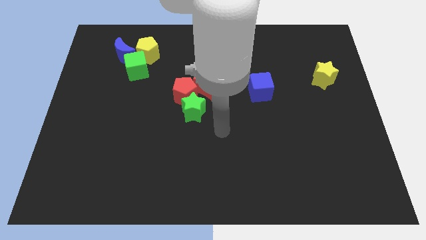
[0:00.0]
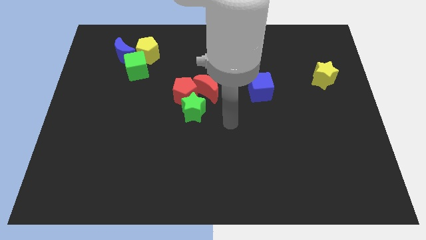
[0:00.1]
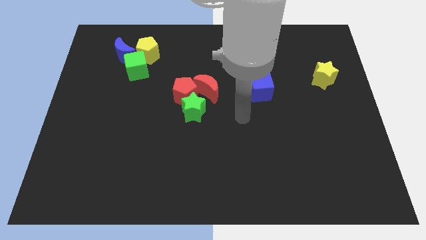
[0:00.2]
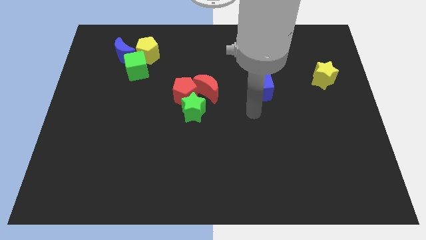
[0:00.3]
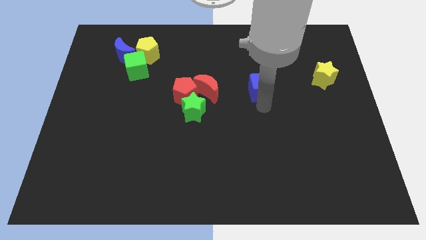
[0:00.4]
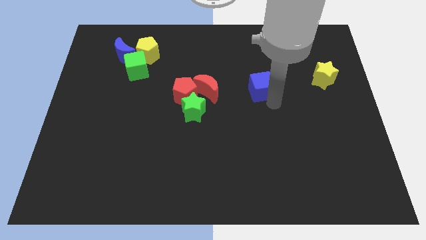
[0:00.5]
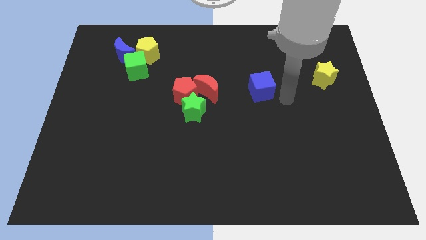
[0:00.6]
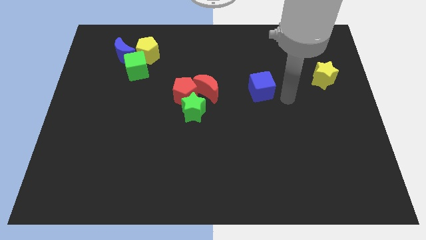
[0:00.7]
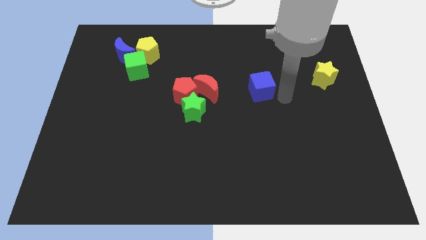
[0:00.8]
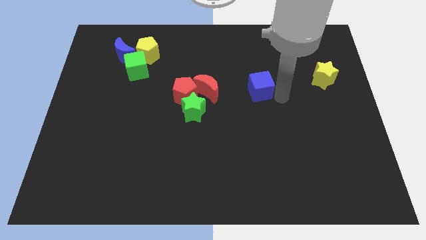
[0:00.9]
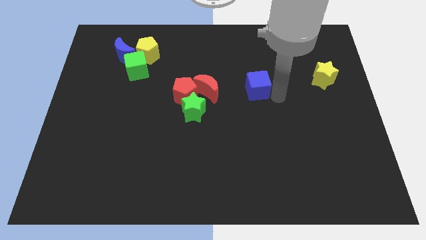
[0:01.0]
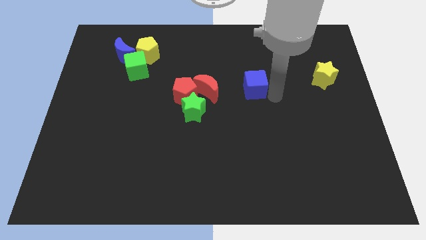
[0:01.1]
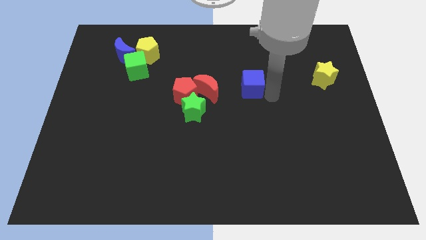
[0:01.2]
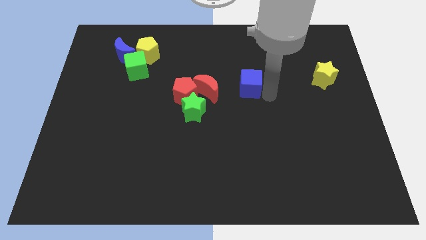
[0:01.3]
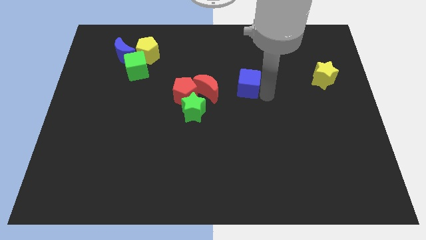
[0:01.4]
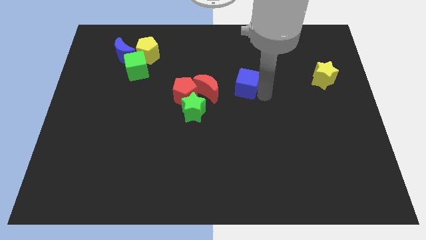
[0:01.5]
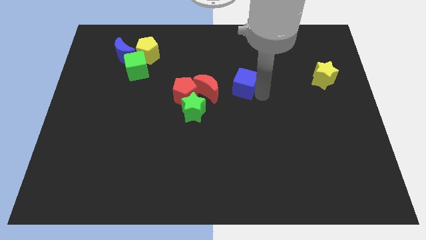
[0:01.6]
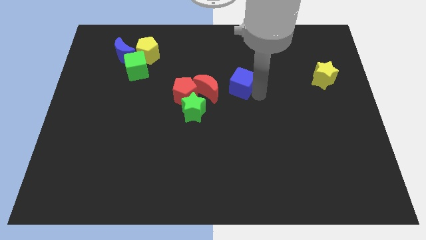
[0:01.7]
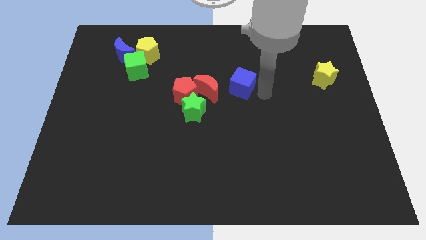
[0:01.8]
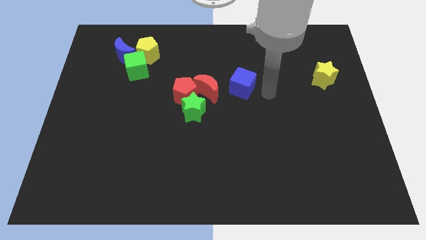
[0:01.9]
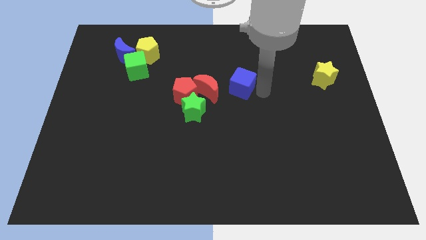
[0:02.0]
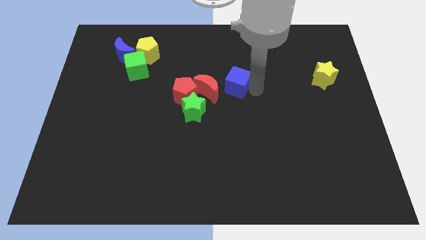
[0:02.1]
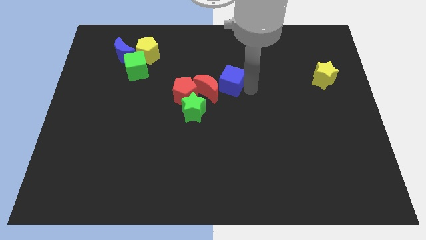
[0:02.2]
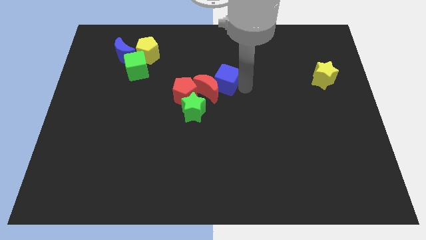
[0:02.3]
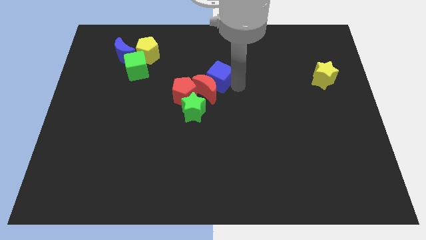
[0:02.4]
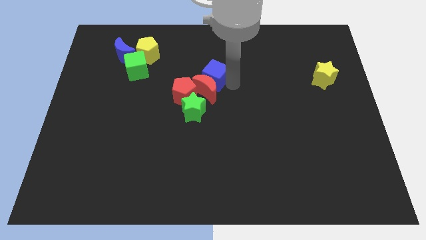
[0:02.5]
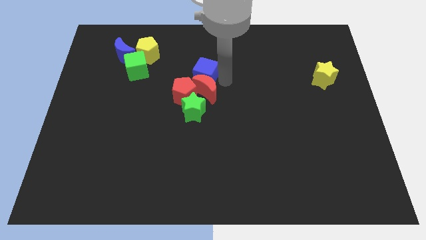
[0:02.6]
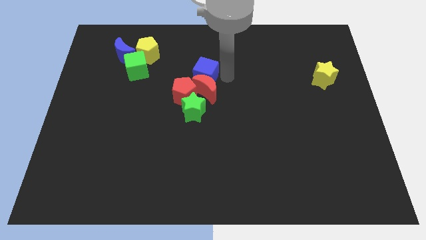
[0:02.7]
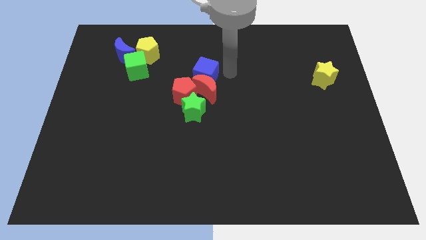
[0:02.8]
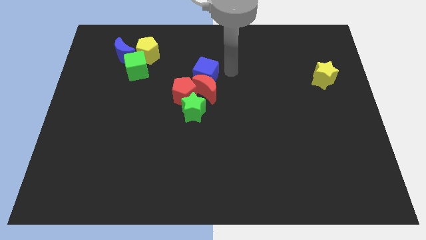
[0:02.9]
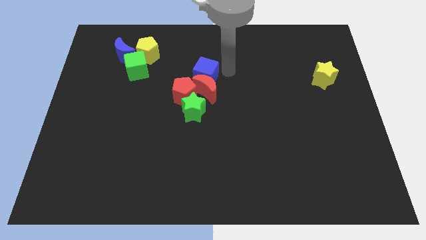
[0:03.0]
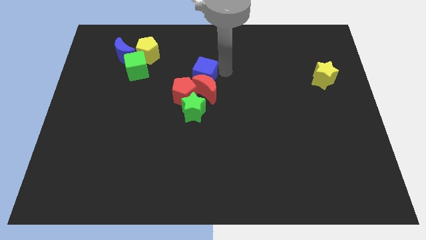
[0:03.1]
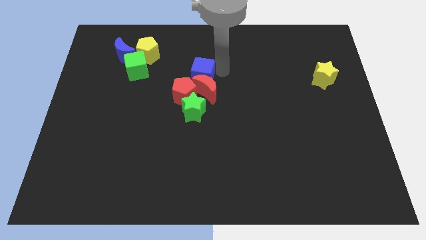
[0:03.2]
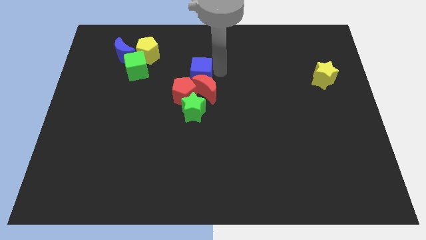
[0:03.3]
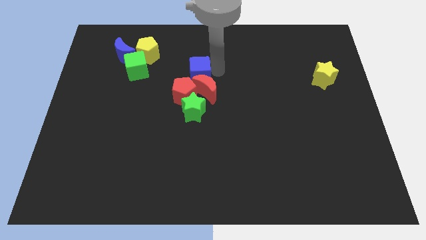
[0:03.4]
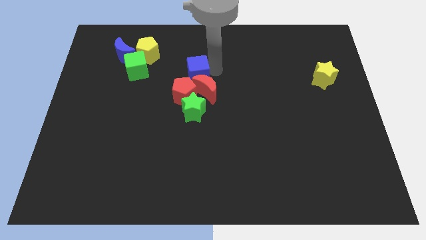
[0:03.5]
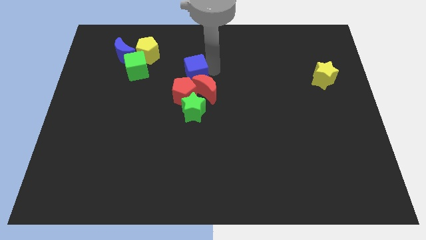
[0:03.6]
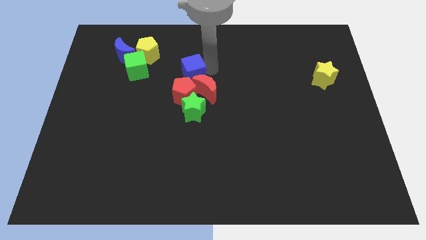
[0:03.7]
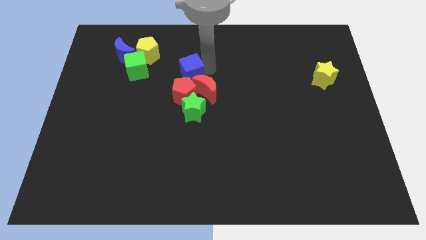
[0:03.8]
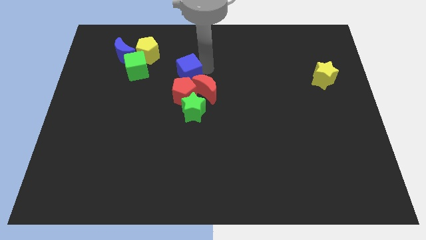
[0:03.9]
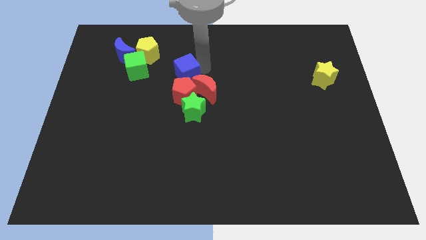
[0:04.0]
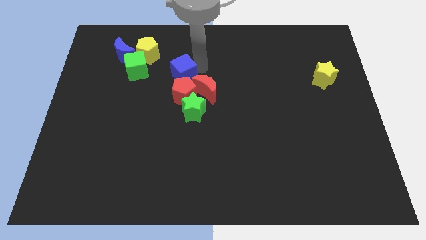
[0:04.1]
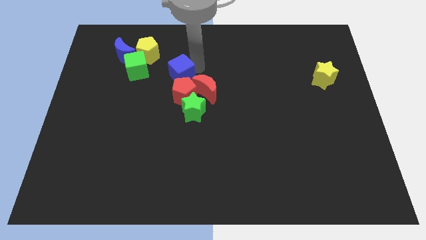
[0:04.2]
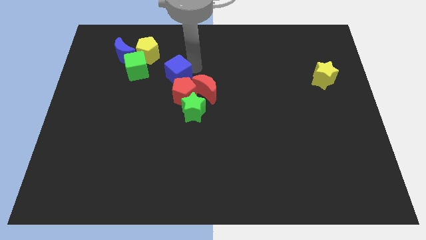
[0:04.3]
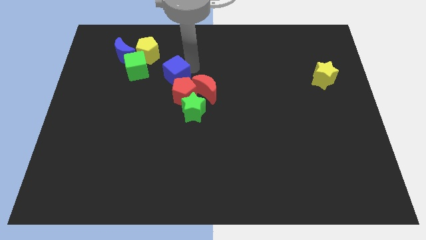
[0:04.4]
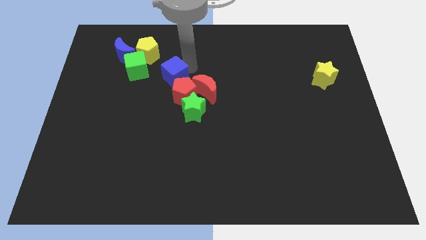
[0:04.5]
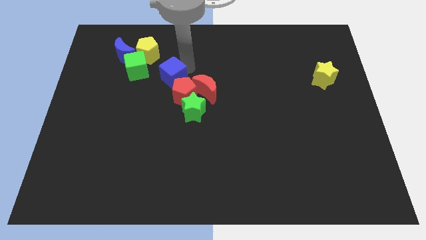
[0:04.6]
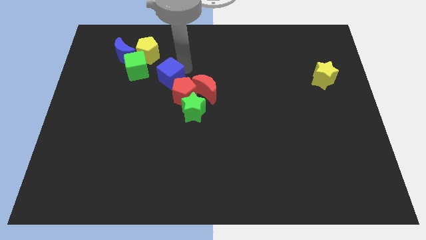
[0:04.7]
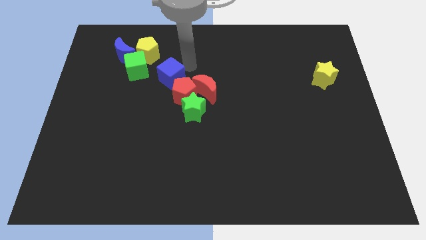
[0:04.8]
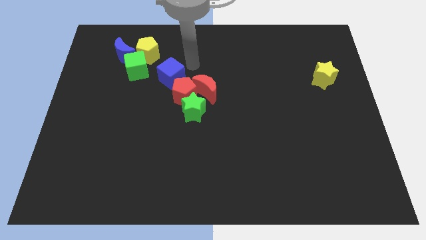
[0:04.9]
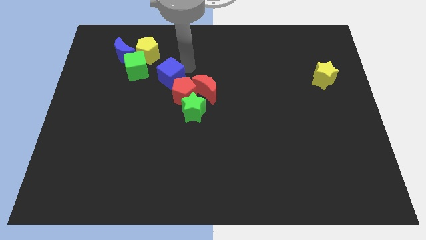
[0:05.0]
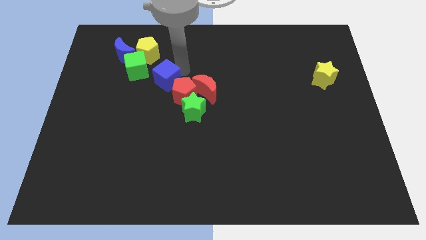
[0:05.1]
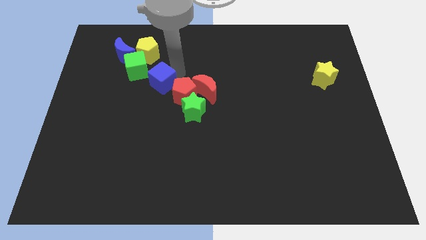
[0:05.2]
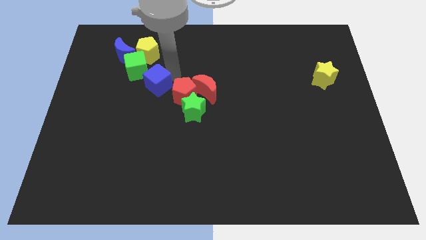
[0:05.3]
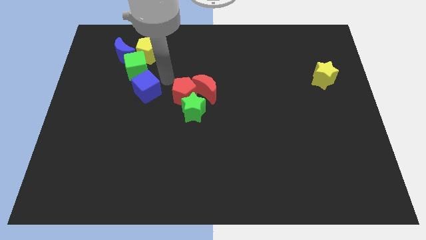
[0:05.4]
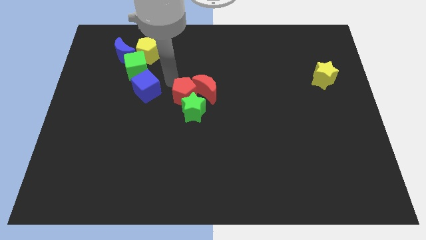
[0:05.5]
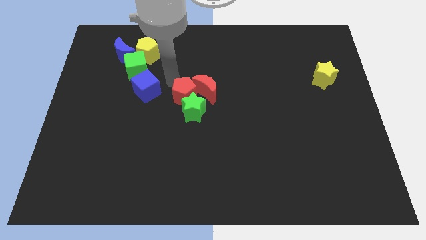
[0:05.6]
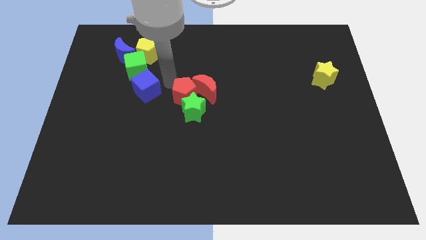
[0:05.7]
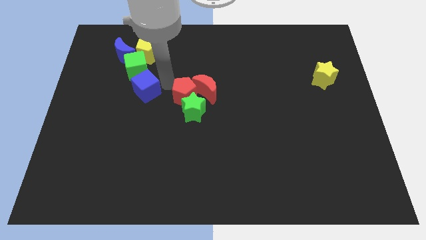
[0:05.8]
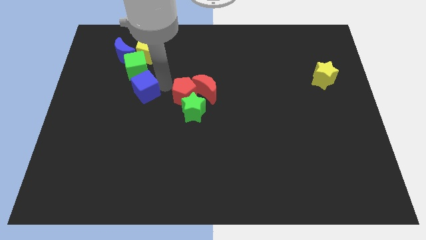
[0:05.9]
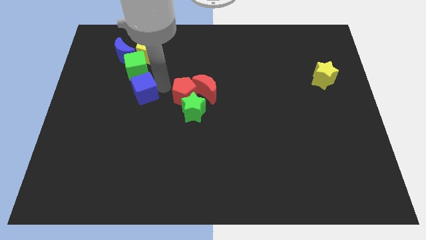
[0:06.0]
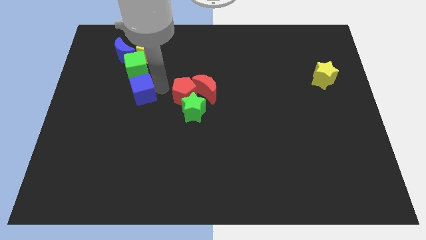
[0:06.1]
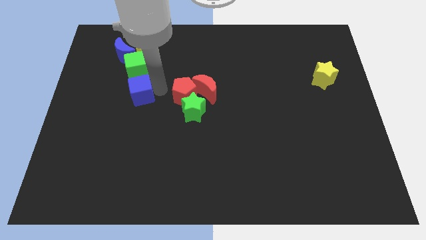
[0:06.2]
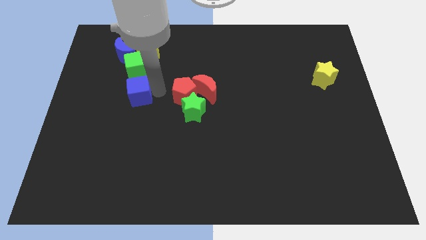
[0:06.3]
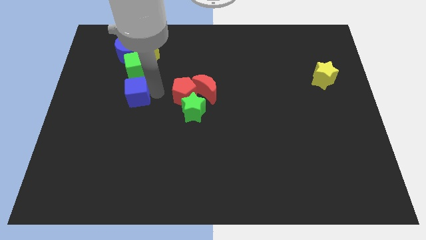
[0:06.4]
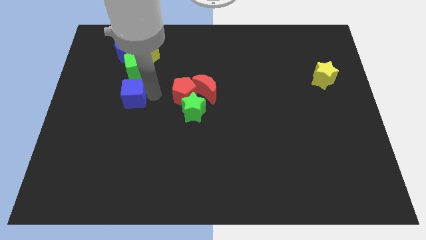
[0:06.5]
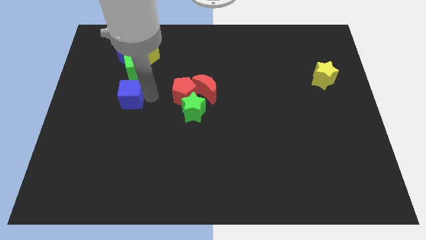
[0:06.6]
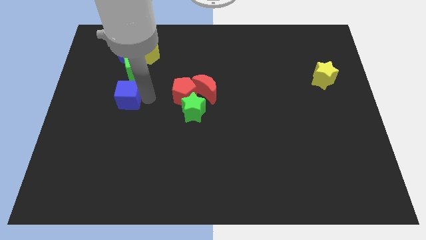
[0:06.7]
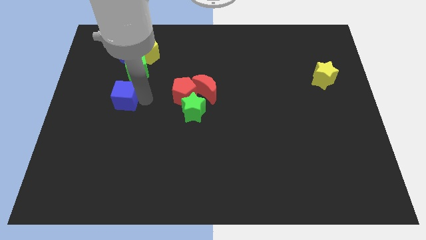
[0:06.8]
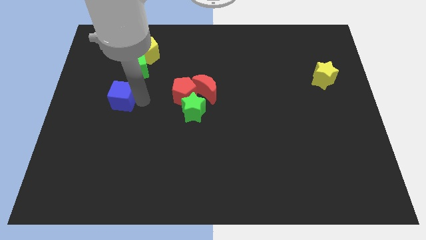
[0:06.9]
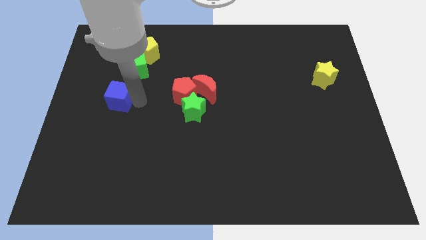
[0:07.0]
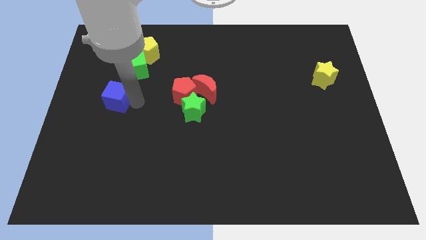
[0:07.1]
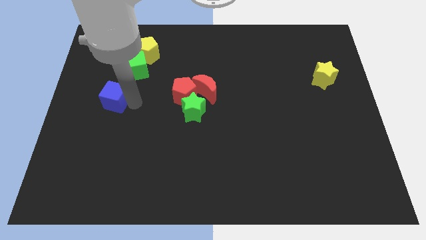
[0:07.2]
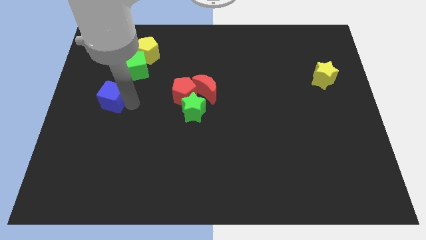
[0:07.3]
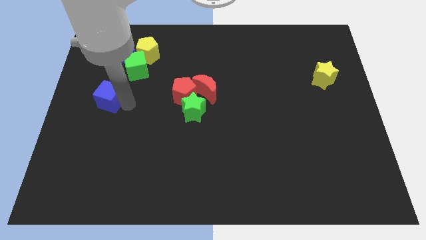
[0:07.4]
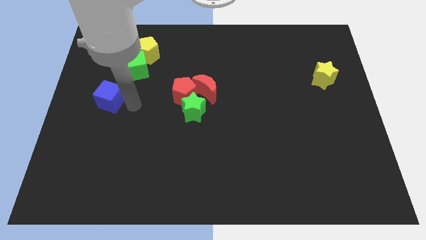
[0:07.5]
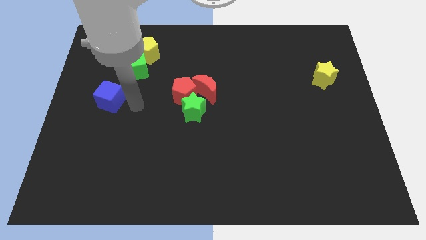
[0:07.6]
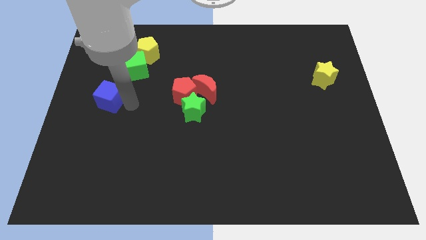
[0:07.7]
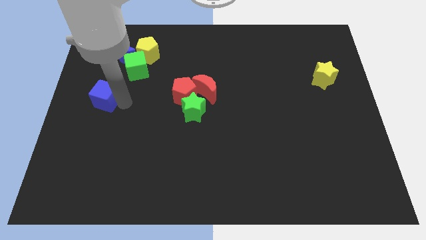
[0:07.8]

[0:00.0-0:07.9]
push the blue cube to the left side
